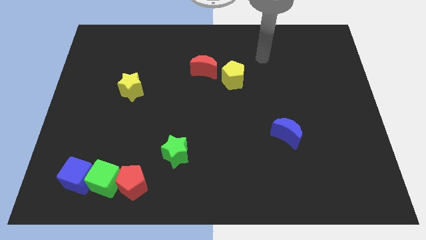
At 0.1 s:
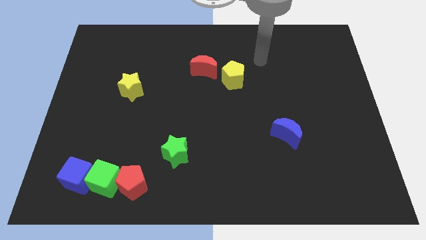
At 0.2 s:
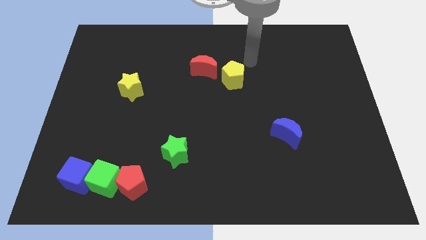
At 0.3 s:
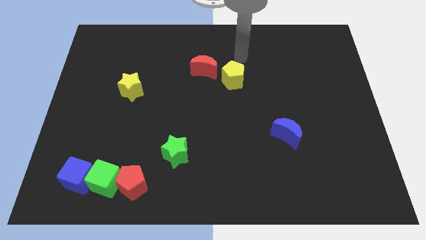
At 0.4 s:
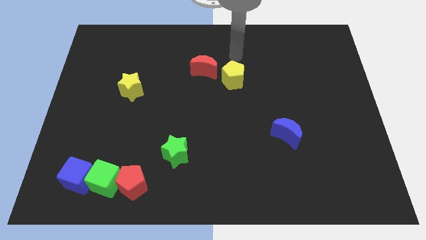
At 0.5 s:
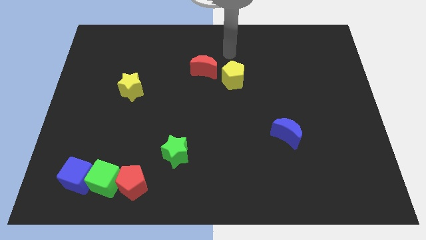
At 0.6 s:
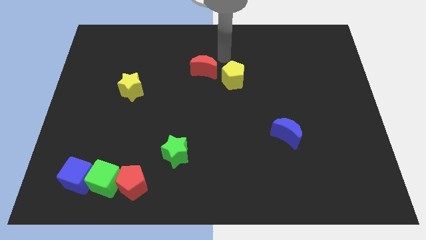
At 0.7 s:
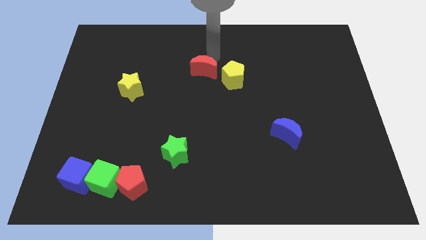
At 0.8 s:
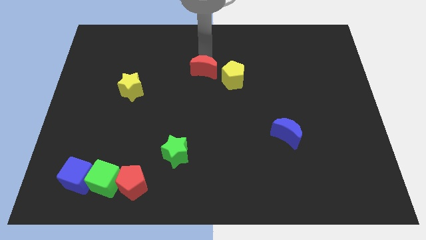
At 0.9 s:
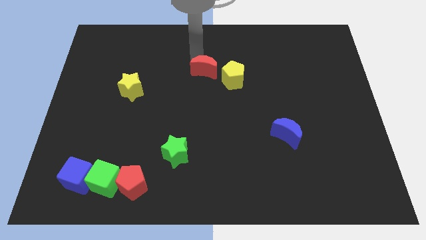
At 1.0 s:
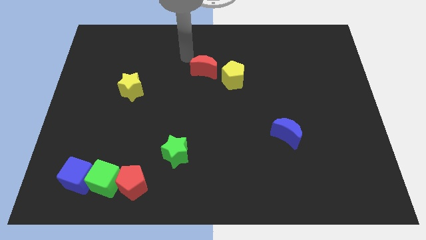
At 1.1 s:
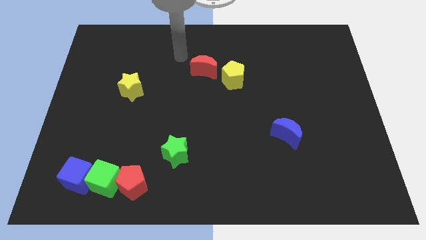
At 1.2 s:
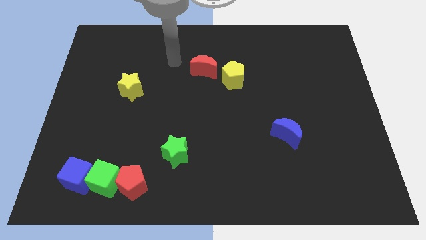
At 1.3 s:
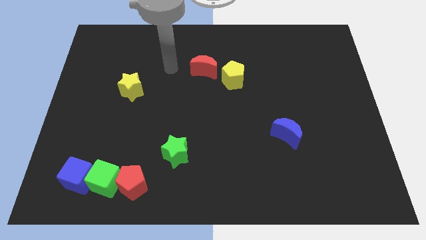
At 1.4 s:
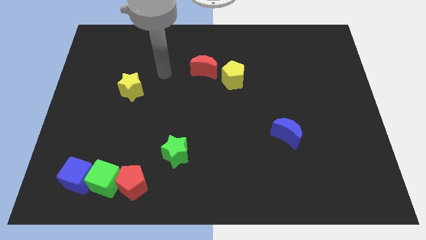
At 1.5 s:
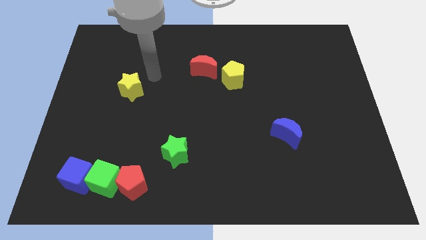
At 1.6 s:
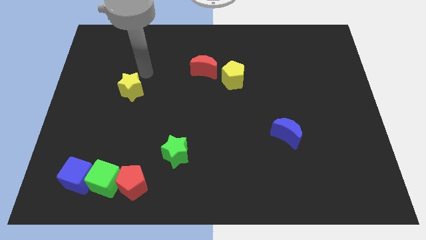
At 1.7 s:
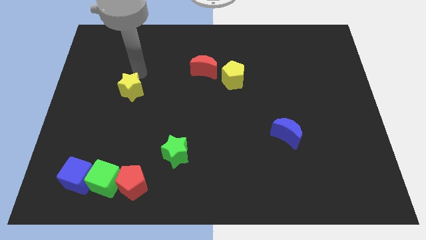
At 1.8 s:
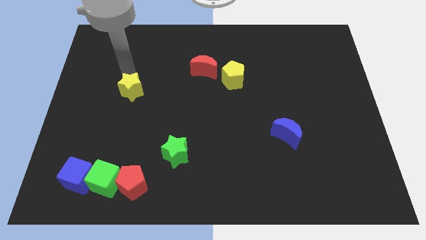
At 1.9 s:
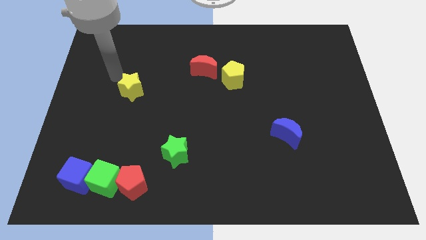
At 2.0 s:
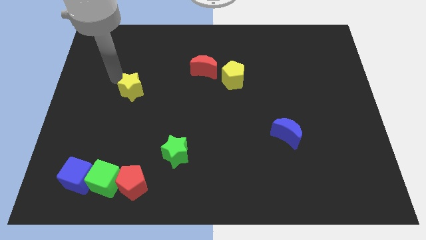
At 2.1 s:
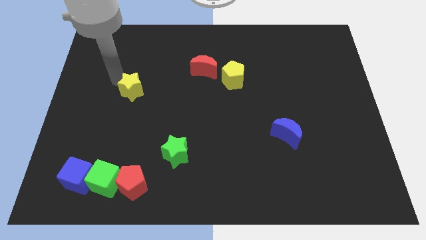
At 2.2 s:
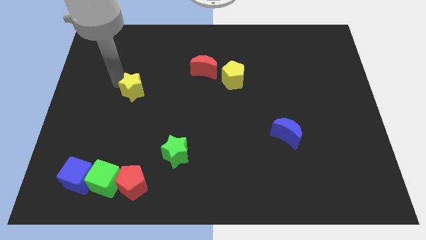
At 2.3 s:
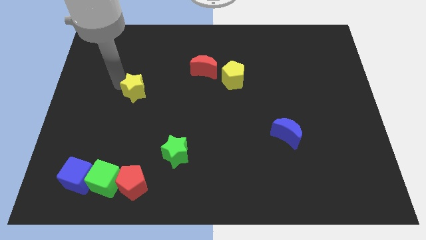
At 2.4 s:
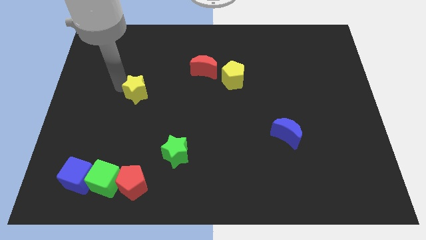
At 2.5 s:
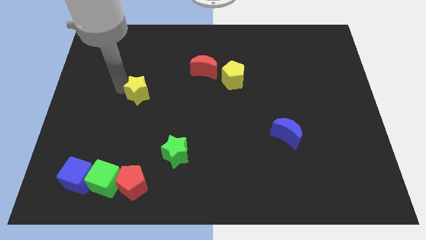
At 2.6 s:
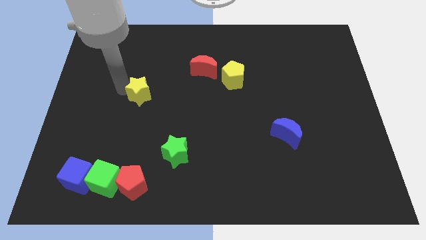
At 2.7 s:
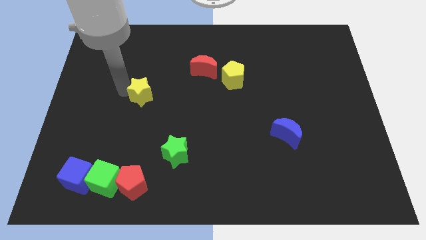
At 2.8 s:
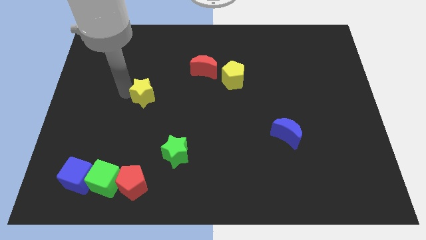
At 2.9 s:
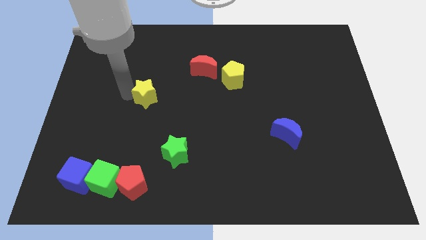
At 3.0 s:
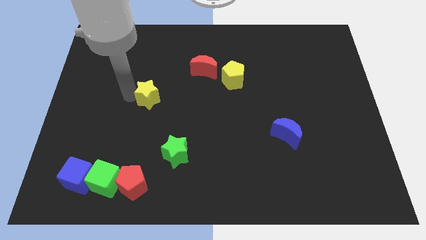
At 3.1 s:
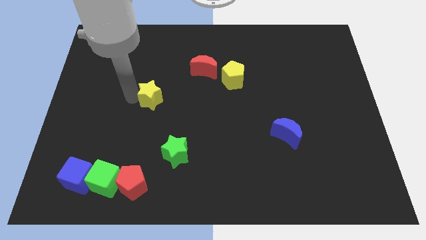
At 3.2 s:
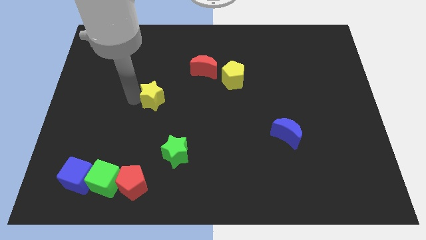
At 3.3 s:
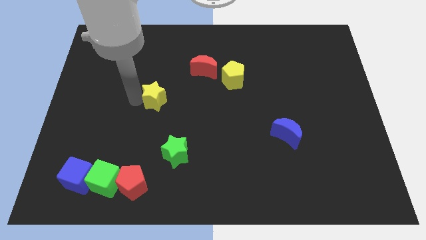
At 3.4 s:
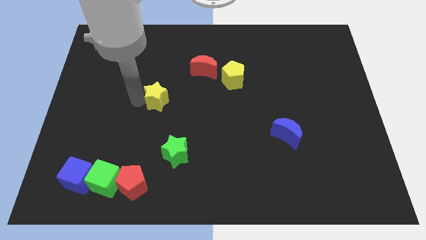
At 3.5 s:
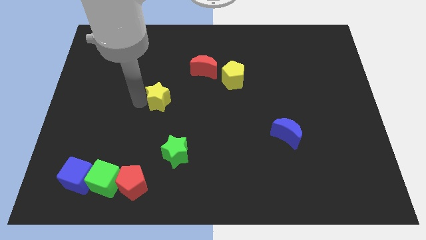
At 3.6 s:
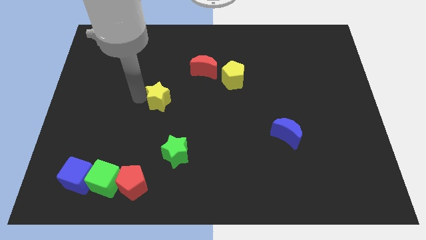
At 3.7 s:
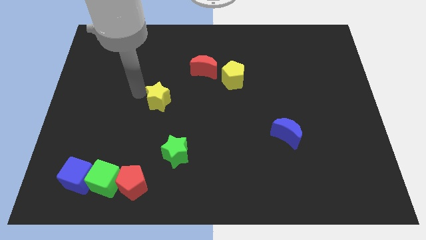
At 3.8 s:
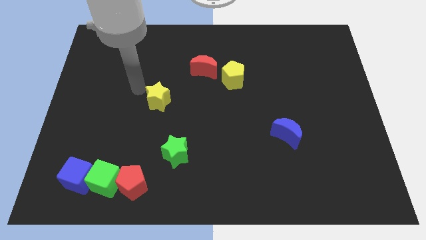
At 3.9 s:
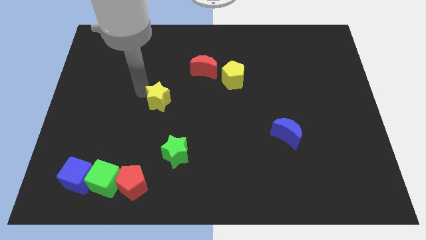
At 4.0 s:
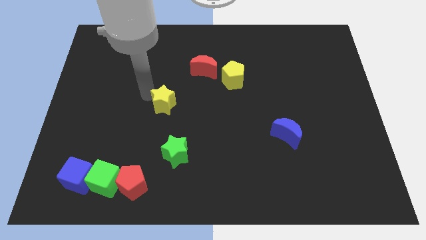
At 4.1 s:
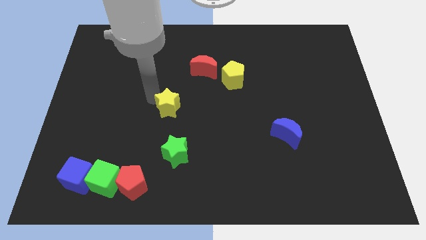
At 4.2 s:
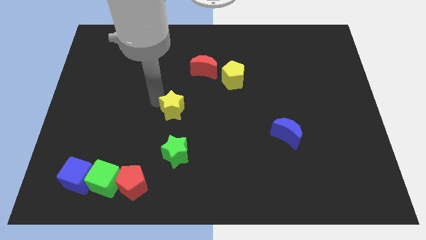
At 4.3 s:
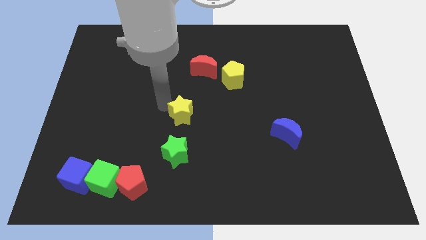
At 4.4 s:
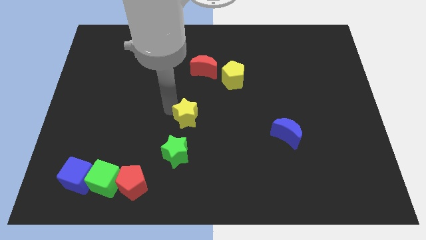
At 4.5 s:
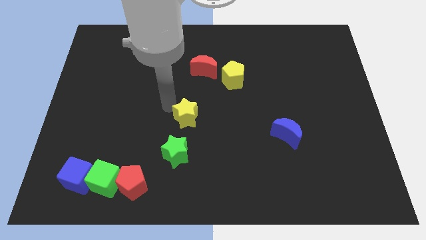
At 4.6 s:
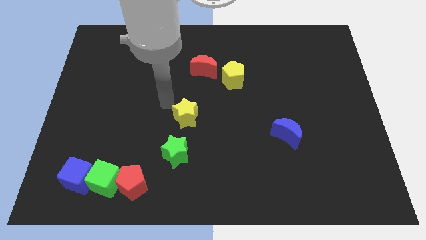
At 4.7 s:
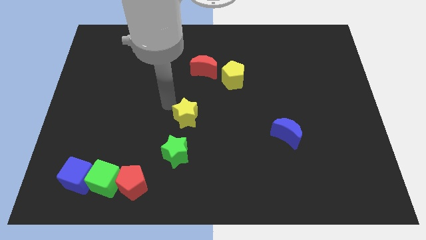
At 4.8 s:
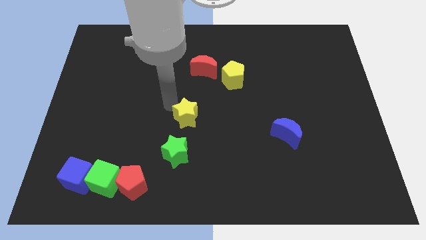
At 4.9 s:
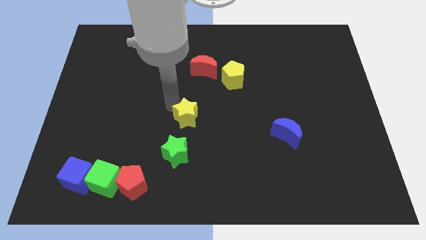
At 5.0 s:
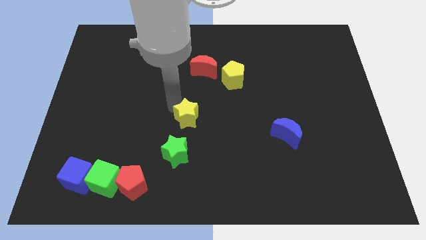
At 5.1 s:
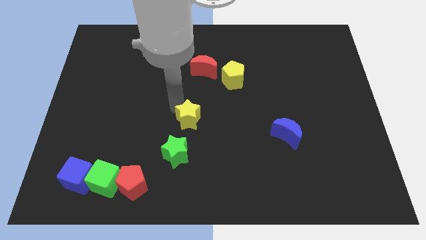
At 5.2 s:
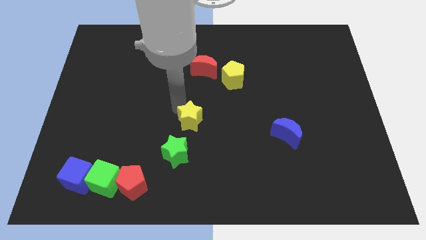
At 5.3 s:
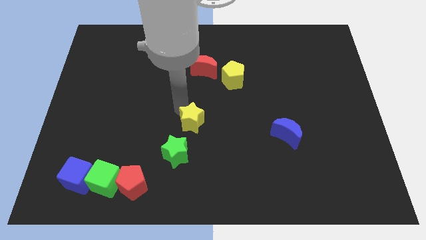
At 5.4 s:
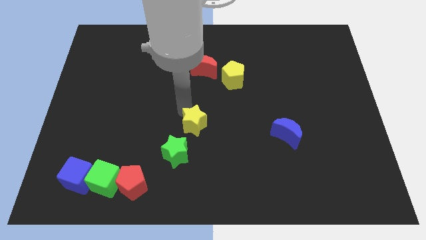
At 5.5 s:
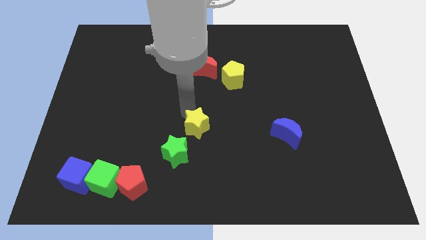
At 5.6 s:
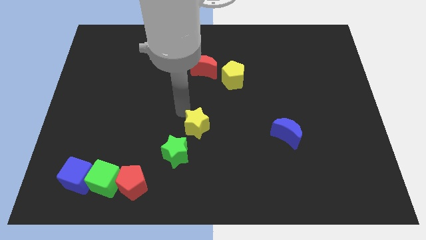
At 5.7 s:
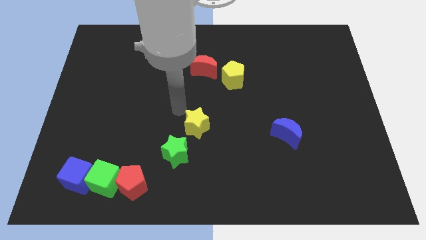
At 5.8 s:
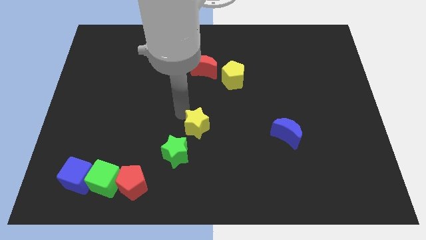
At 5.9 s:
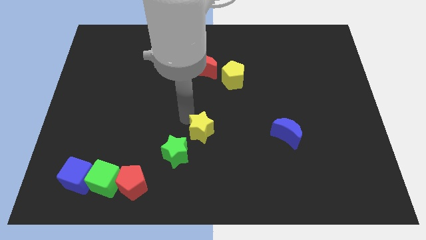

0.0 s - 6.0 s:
slide the yellow star diagonally down and to the right

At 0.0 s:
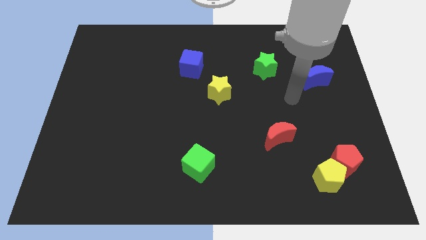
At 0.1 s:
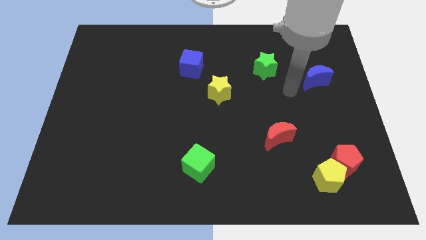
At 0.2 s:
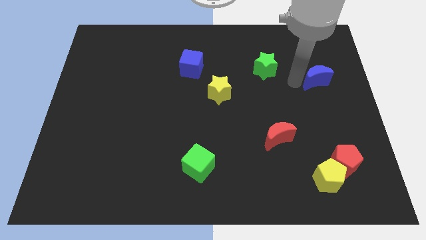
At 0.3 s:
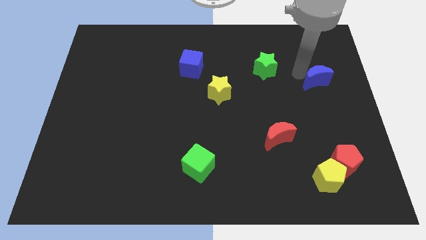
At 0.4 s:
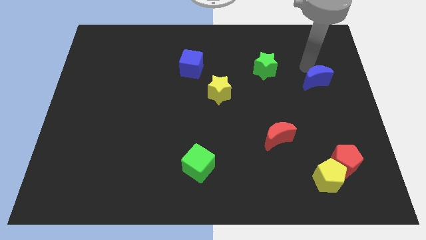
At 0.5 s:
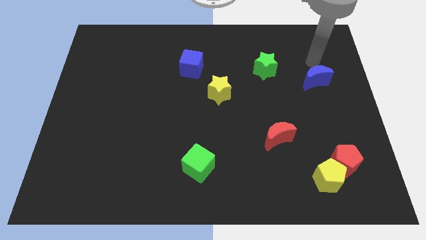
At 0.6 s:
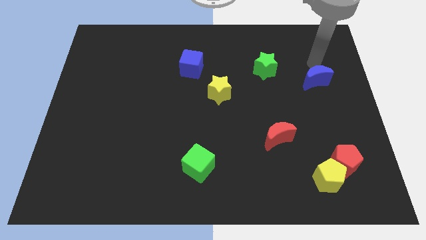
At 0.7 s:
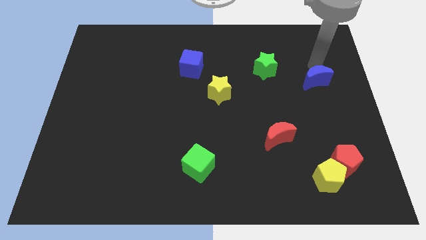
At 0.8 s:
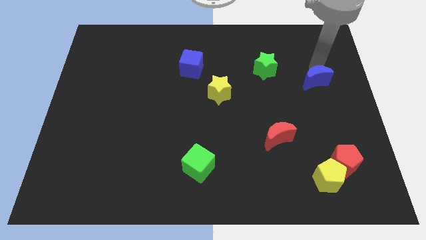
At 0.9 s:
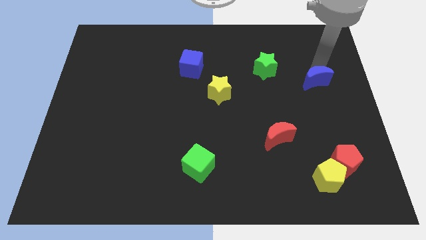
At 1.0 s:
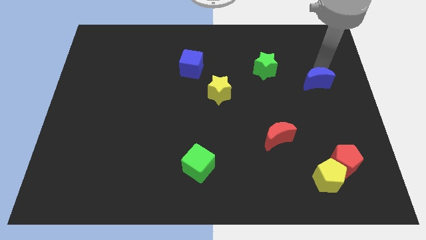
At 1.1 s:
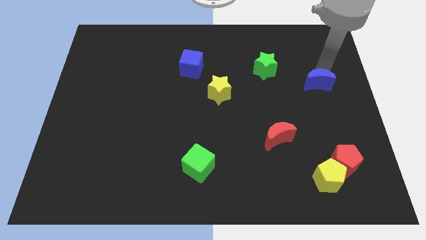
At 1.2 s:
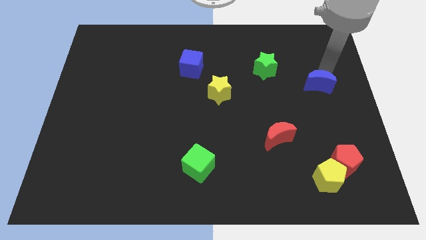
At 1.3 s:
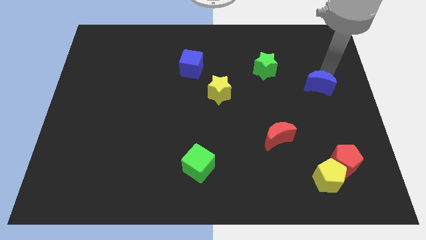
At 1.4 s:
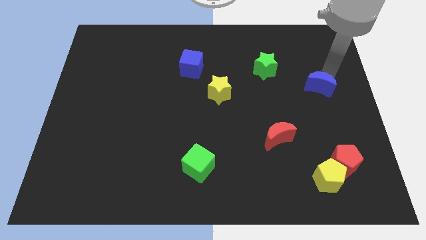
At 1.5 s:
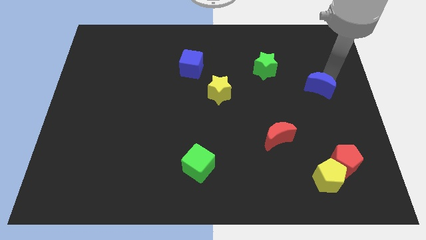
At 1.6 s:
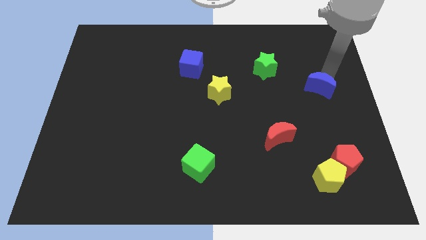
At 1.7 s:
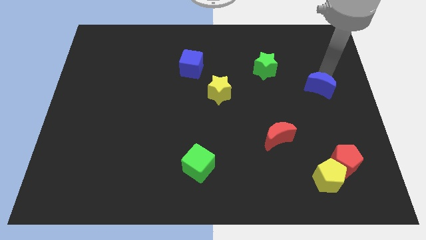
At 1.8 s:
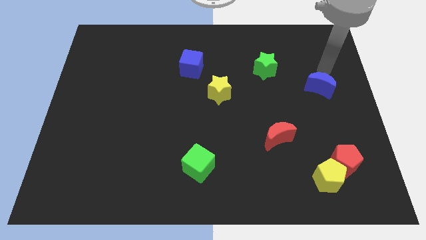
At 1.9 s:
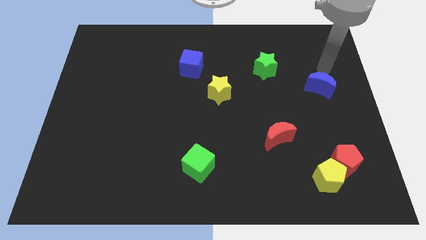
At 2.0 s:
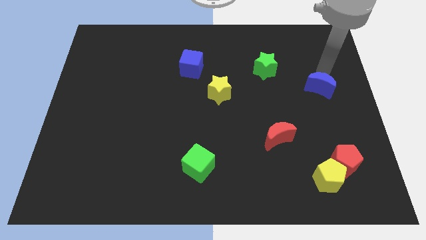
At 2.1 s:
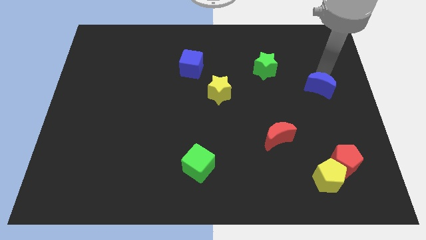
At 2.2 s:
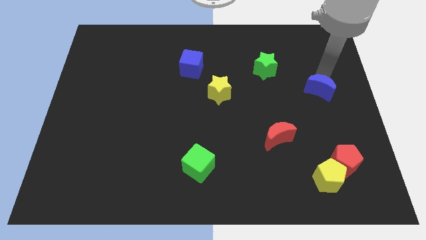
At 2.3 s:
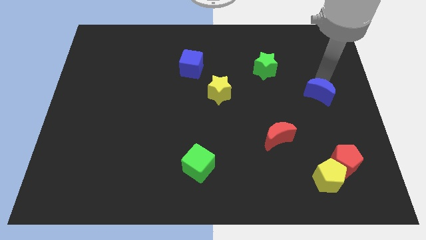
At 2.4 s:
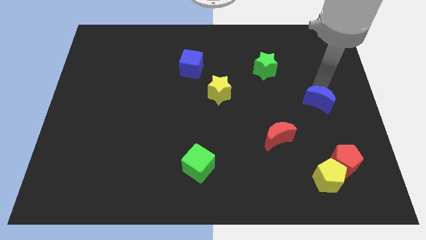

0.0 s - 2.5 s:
slightly push the blue moon down
